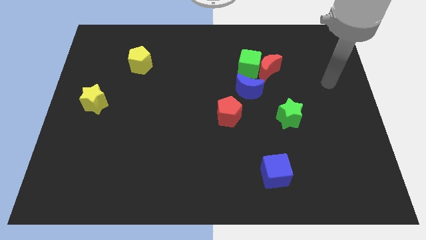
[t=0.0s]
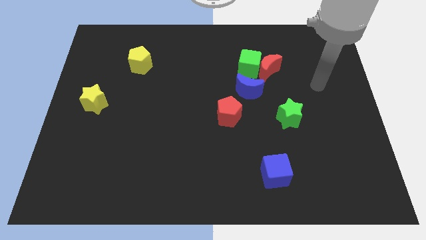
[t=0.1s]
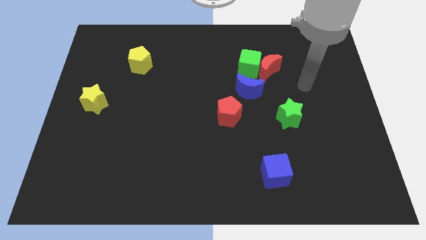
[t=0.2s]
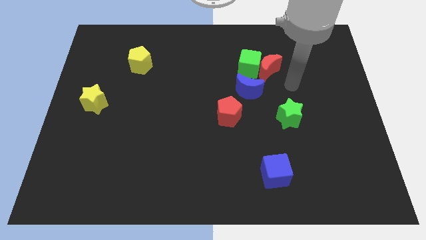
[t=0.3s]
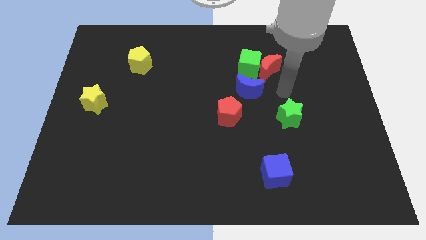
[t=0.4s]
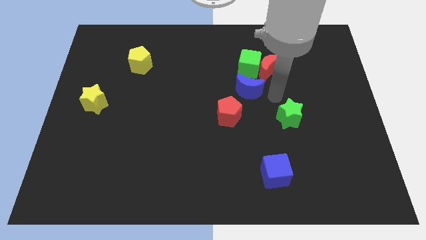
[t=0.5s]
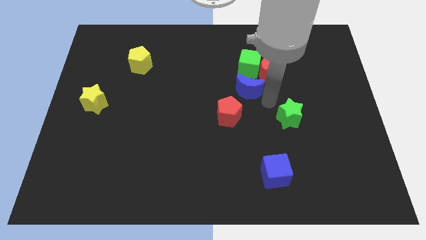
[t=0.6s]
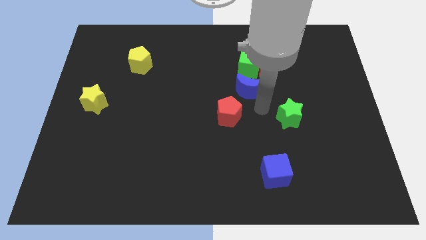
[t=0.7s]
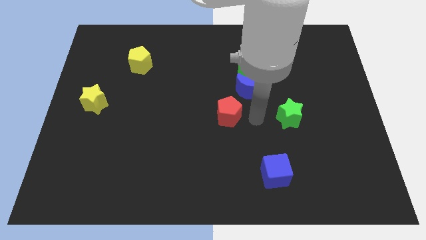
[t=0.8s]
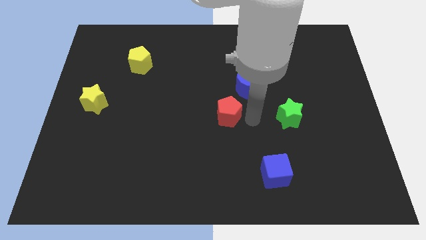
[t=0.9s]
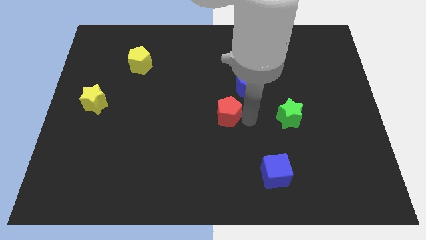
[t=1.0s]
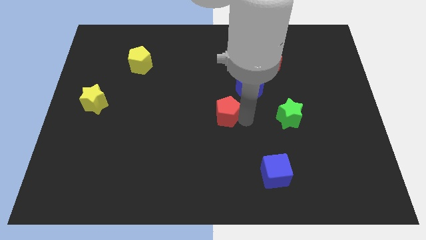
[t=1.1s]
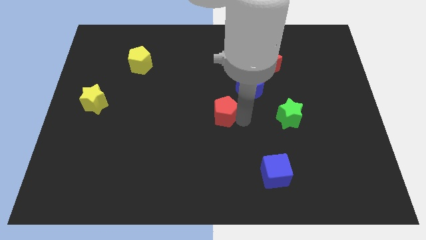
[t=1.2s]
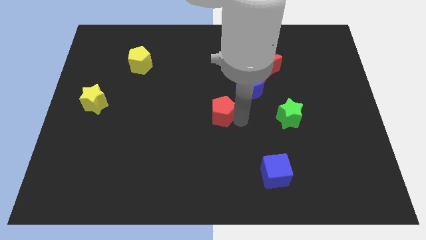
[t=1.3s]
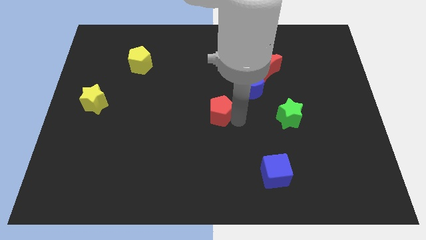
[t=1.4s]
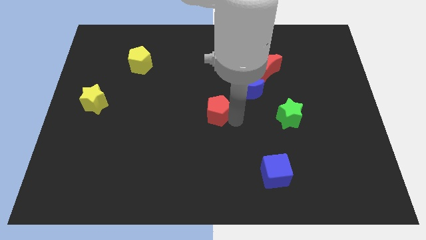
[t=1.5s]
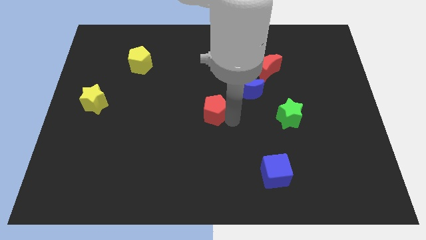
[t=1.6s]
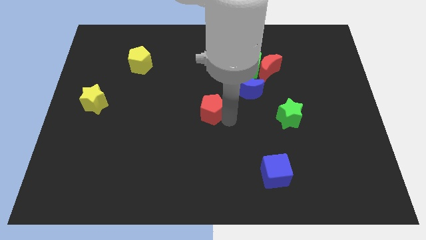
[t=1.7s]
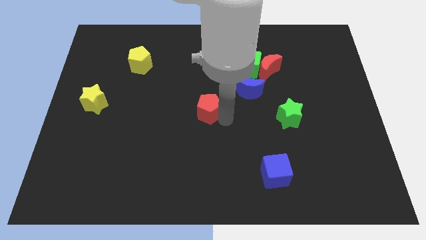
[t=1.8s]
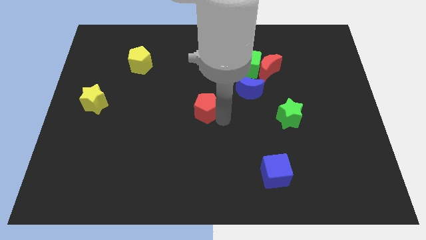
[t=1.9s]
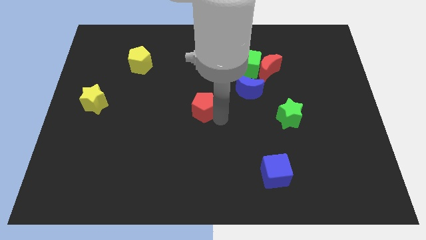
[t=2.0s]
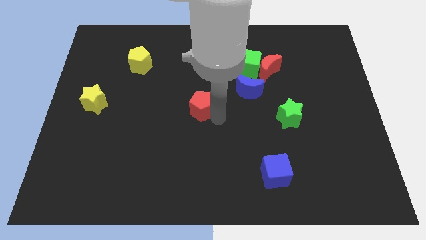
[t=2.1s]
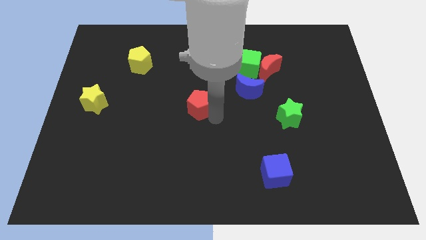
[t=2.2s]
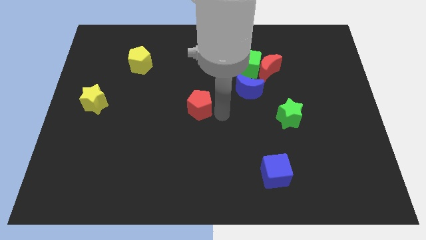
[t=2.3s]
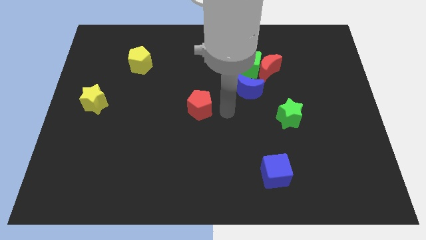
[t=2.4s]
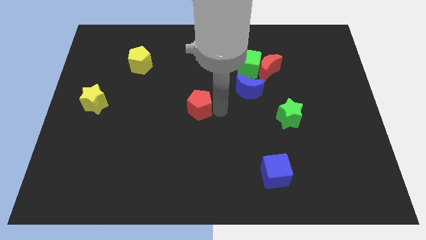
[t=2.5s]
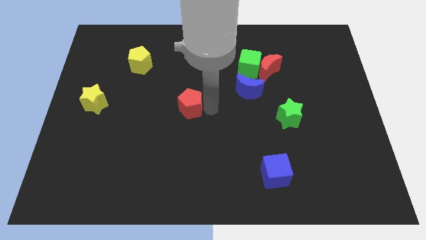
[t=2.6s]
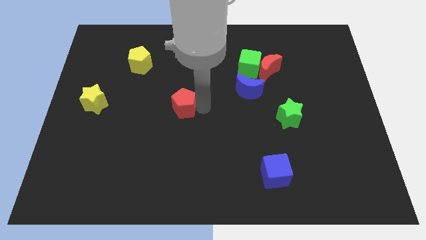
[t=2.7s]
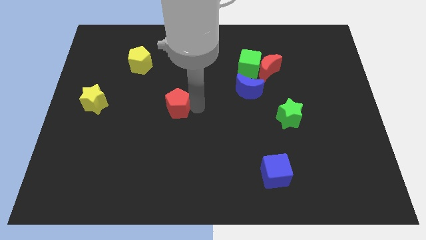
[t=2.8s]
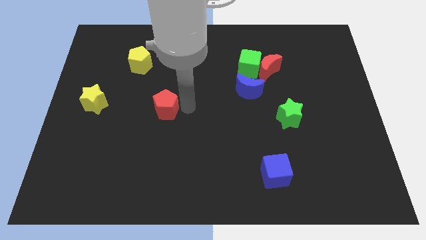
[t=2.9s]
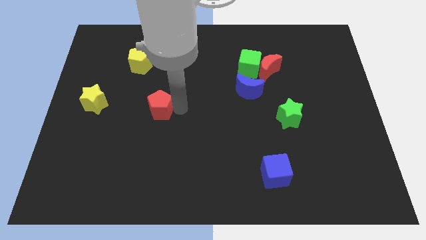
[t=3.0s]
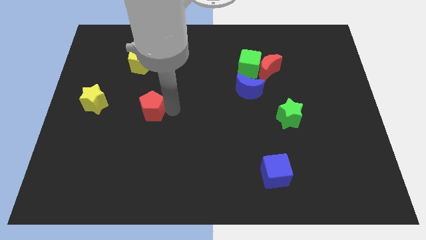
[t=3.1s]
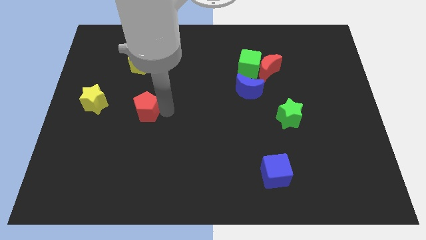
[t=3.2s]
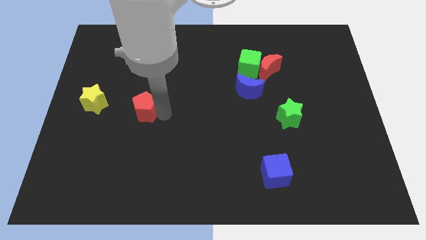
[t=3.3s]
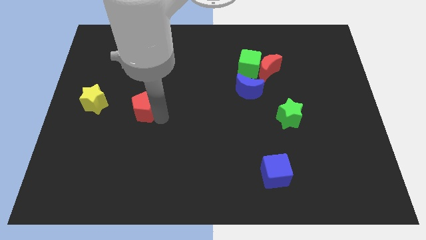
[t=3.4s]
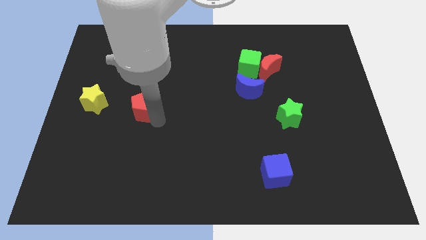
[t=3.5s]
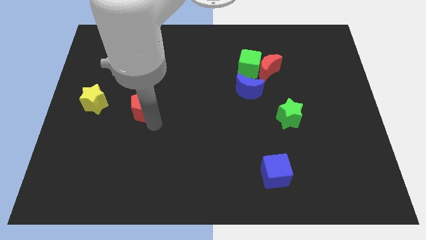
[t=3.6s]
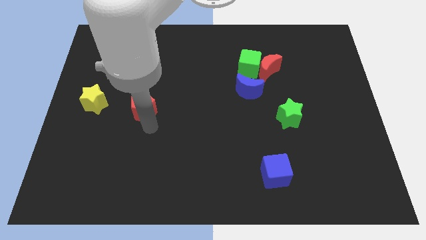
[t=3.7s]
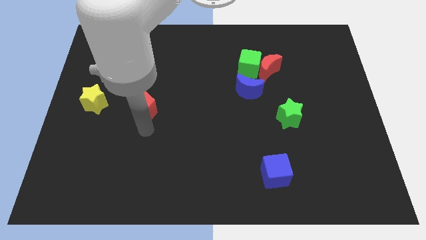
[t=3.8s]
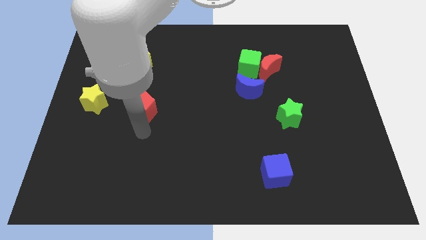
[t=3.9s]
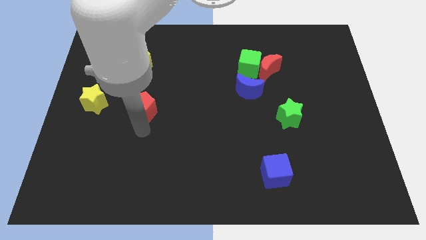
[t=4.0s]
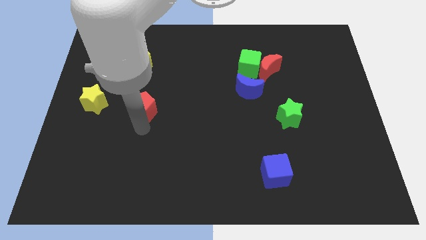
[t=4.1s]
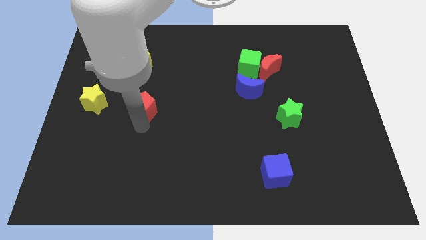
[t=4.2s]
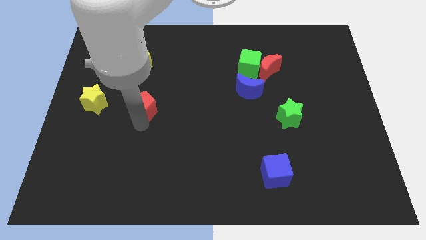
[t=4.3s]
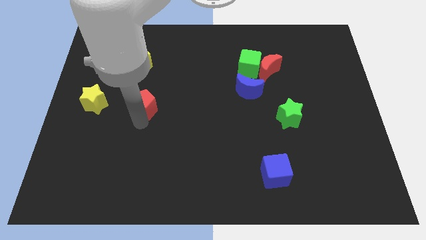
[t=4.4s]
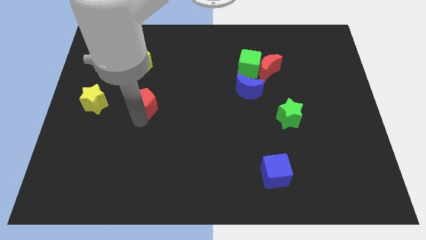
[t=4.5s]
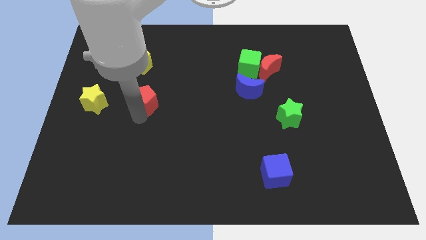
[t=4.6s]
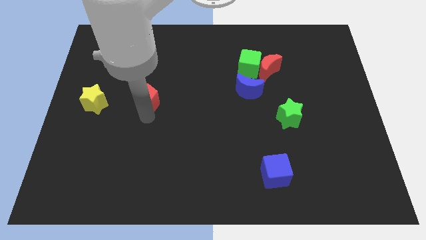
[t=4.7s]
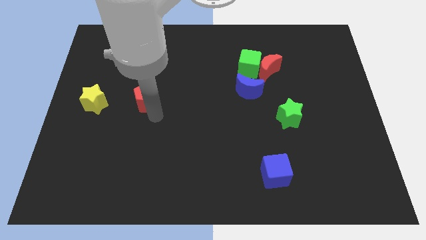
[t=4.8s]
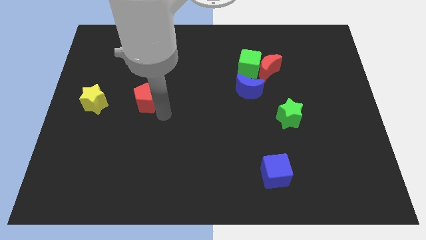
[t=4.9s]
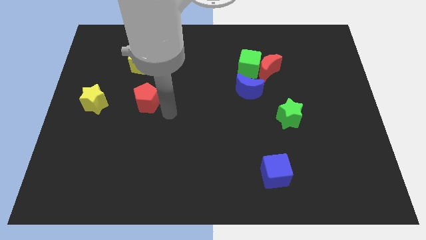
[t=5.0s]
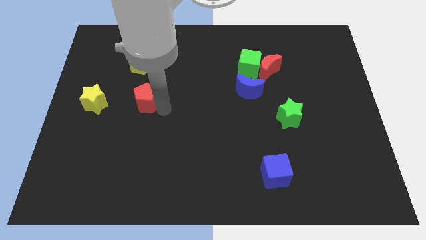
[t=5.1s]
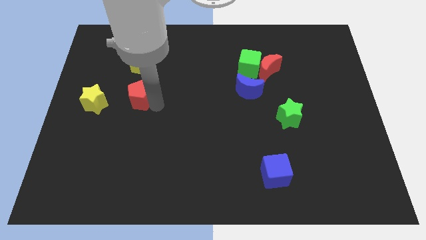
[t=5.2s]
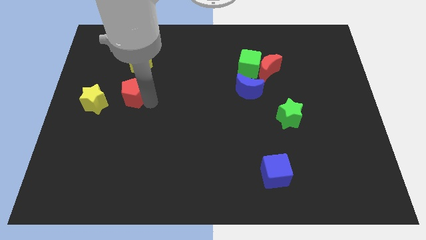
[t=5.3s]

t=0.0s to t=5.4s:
slide the red pentagon diagonally up and to the right of the yellow star

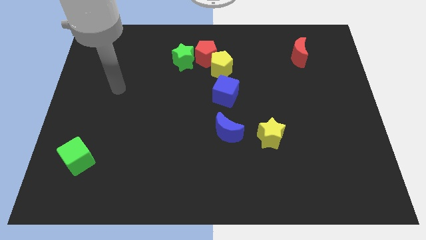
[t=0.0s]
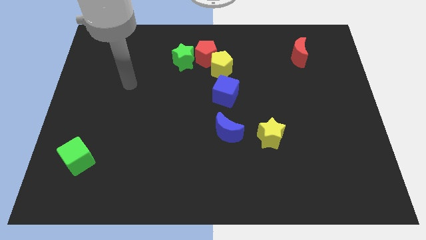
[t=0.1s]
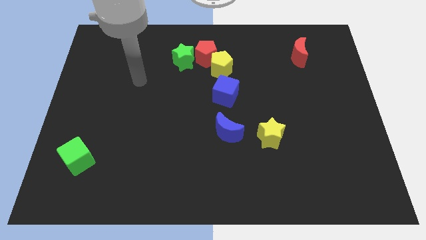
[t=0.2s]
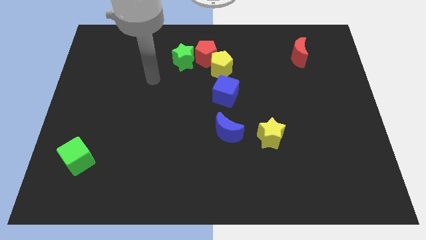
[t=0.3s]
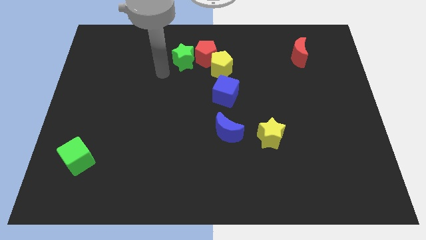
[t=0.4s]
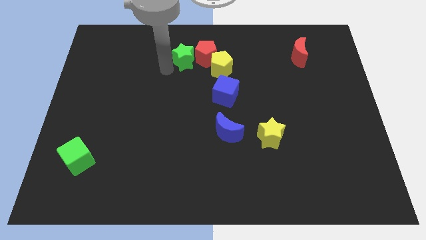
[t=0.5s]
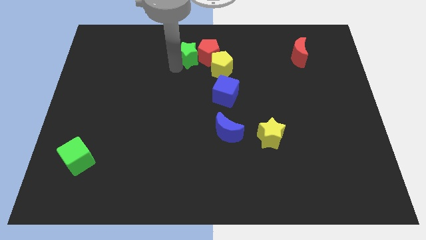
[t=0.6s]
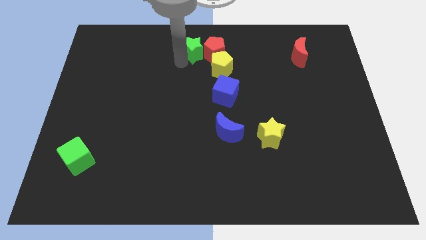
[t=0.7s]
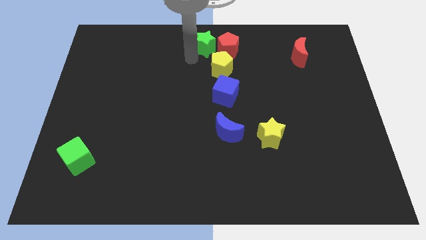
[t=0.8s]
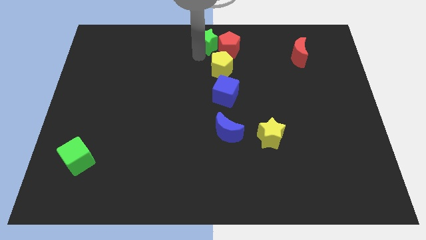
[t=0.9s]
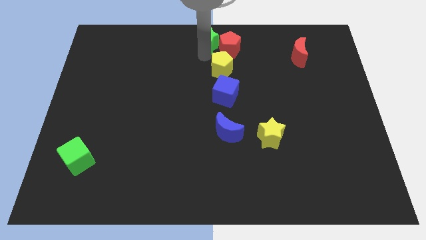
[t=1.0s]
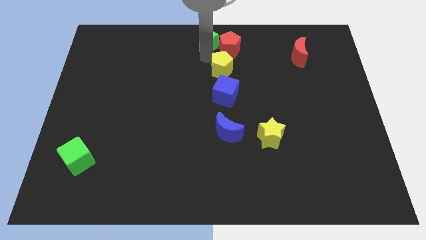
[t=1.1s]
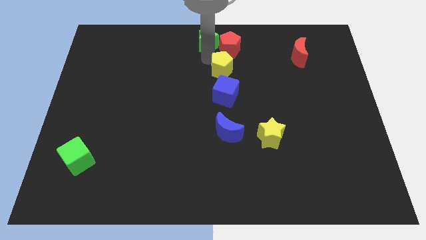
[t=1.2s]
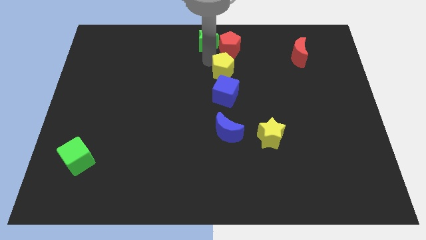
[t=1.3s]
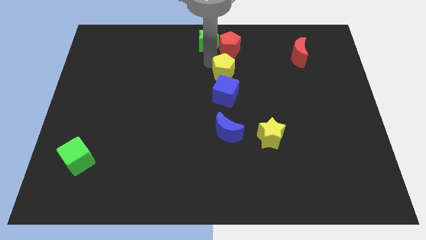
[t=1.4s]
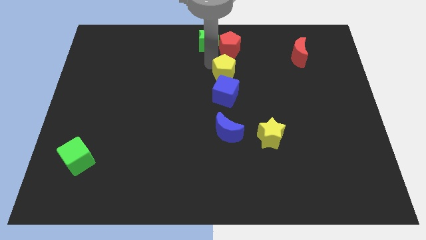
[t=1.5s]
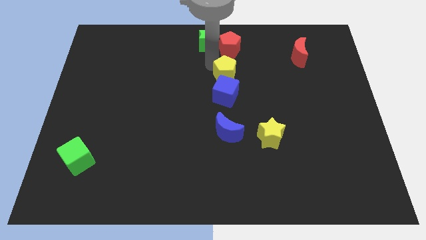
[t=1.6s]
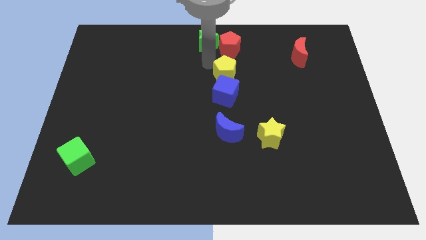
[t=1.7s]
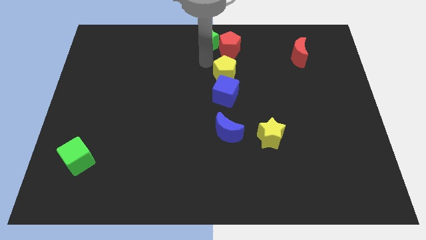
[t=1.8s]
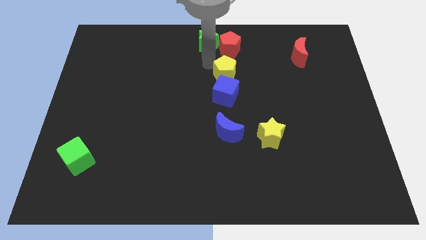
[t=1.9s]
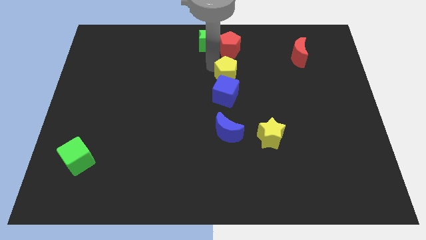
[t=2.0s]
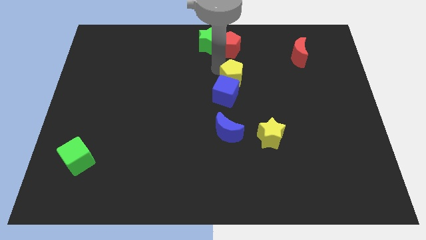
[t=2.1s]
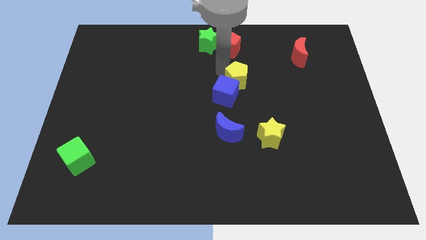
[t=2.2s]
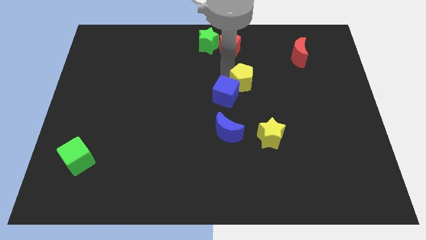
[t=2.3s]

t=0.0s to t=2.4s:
slide the yellow pentagon just right of the blue cube
